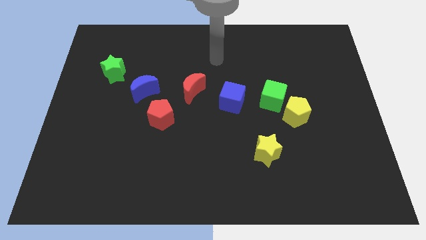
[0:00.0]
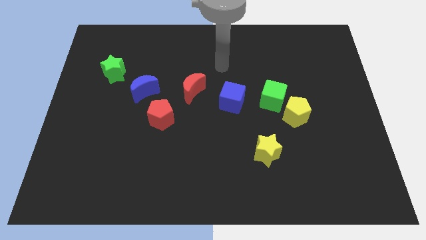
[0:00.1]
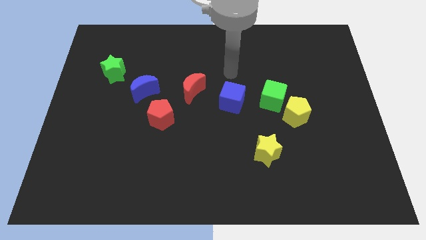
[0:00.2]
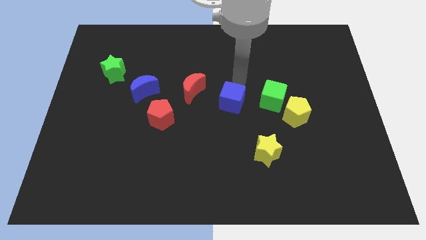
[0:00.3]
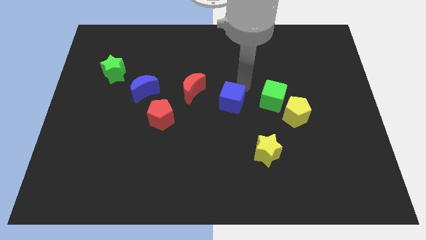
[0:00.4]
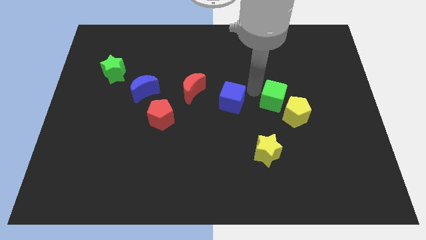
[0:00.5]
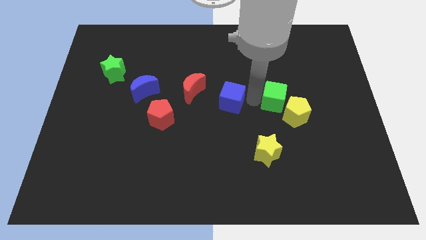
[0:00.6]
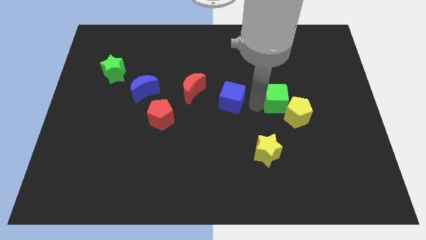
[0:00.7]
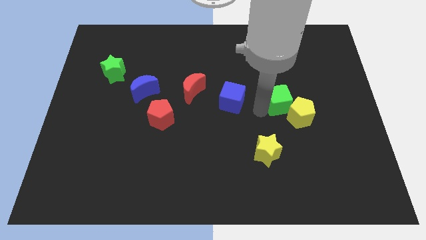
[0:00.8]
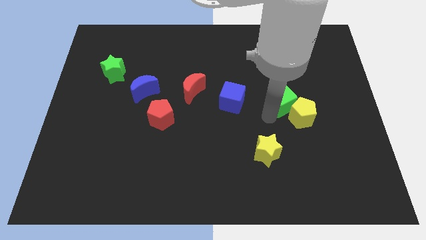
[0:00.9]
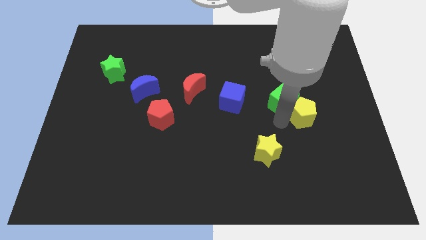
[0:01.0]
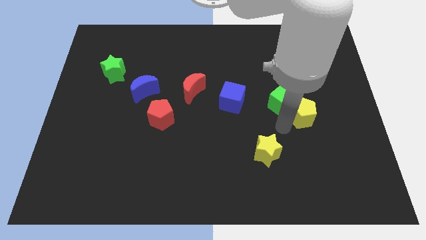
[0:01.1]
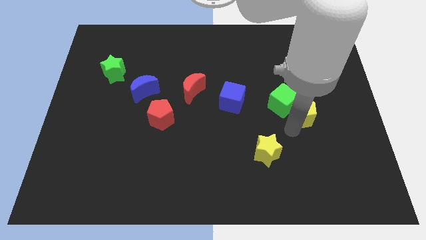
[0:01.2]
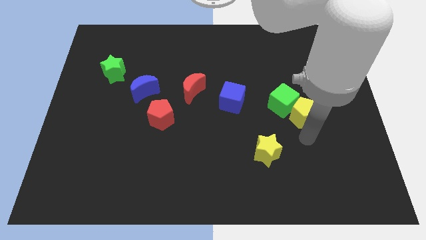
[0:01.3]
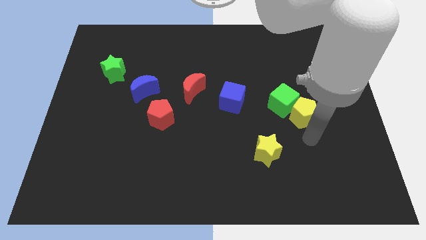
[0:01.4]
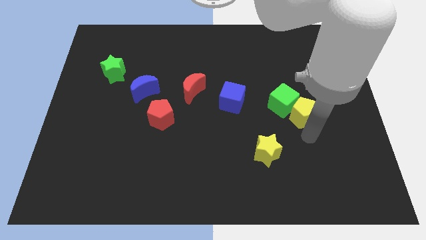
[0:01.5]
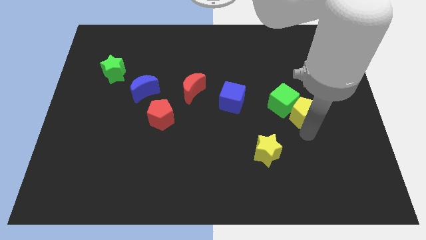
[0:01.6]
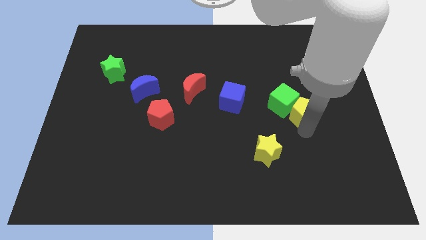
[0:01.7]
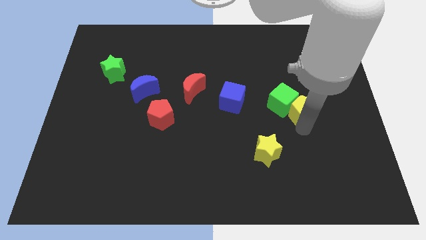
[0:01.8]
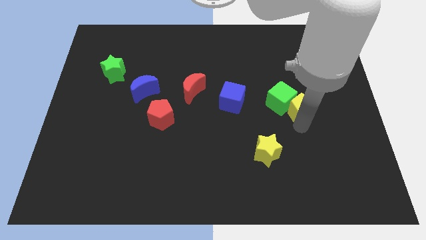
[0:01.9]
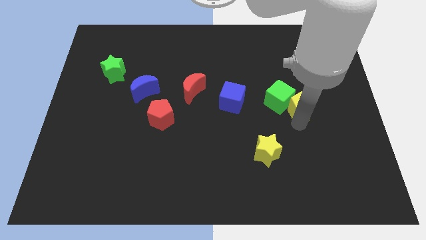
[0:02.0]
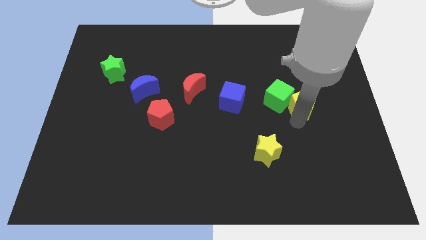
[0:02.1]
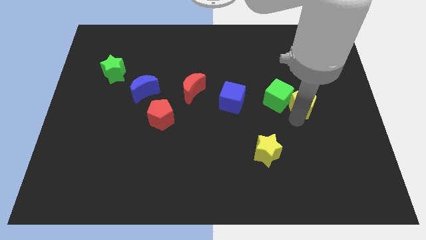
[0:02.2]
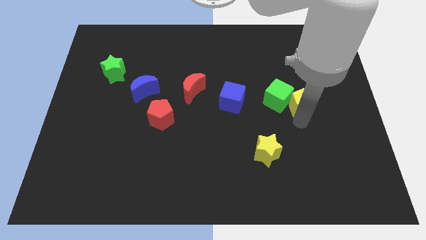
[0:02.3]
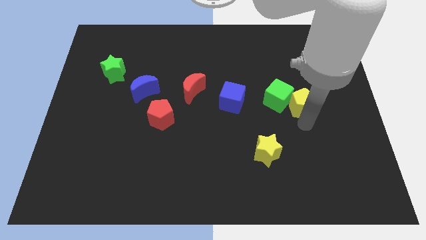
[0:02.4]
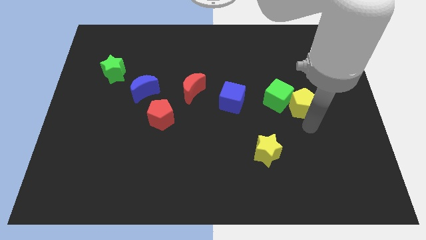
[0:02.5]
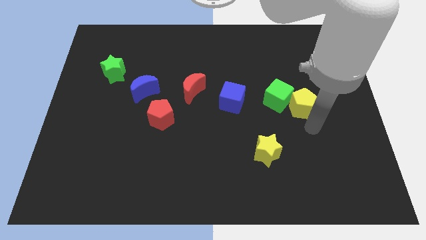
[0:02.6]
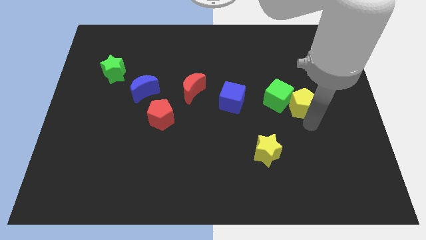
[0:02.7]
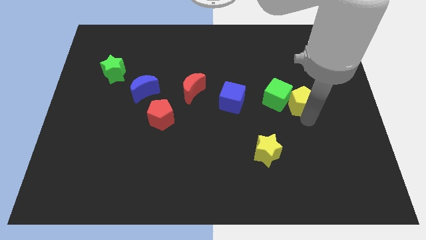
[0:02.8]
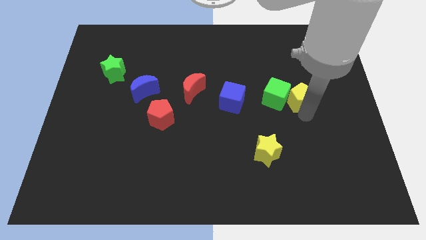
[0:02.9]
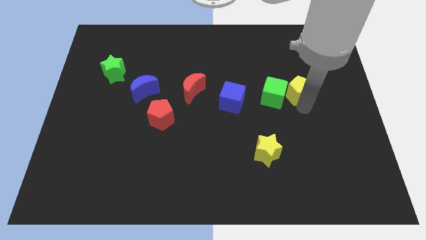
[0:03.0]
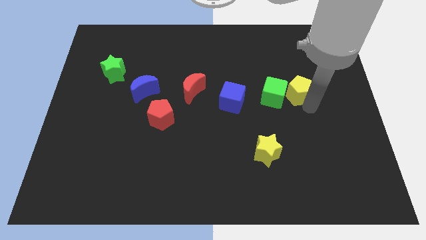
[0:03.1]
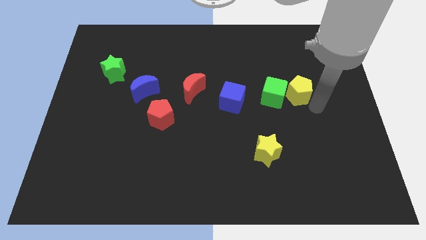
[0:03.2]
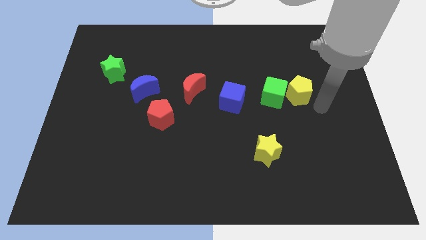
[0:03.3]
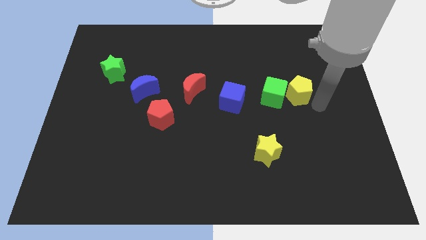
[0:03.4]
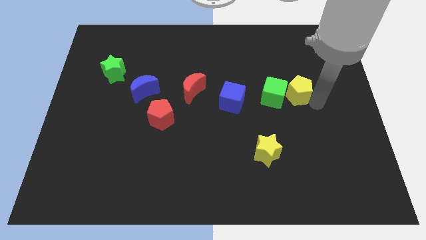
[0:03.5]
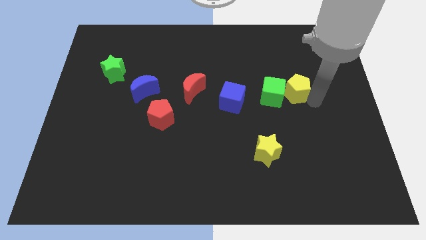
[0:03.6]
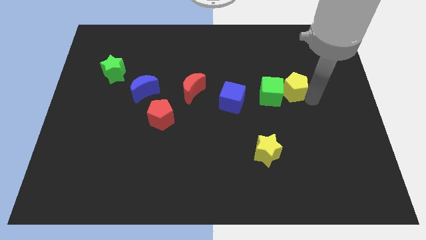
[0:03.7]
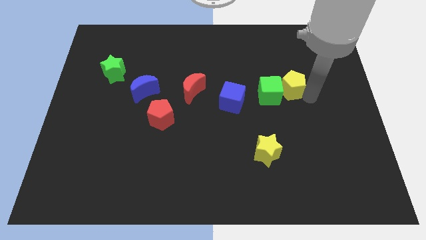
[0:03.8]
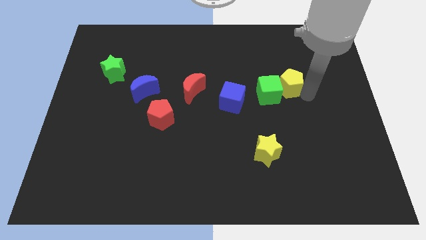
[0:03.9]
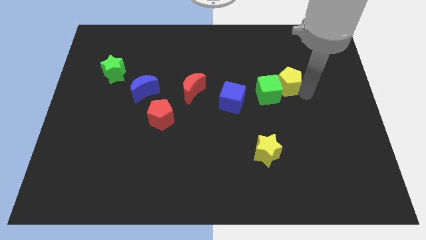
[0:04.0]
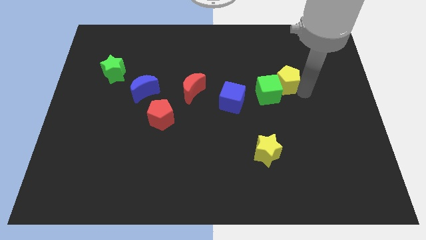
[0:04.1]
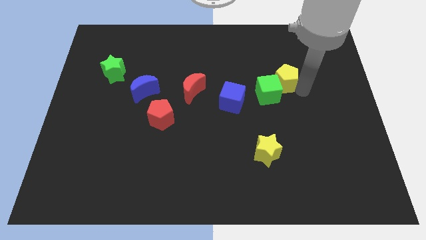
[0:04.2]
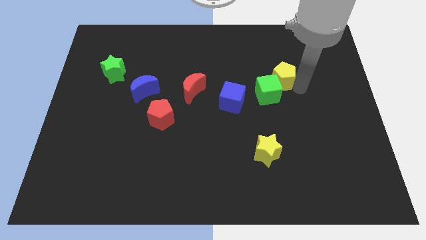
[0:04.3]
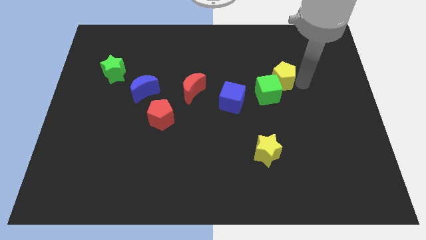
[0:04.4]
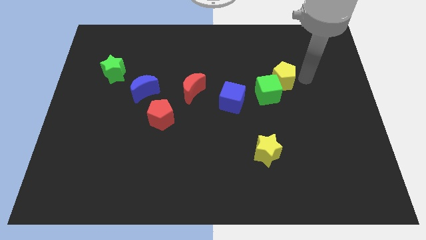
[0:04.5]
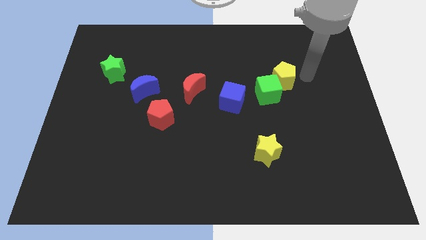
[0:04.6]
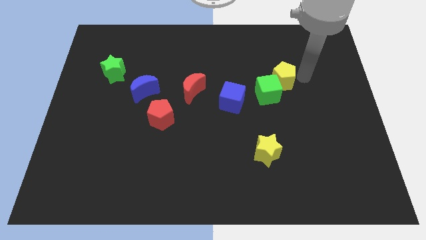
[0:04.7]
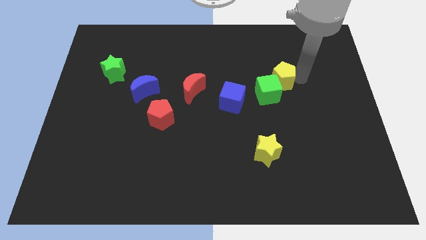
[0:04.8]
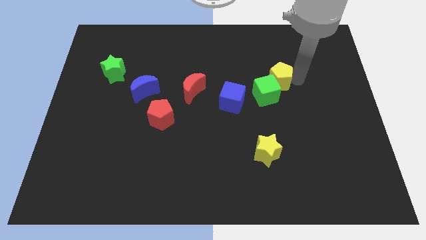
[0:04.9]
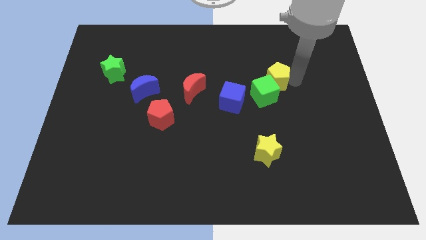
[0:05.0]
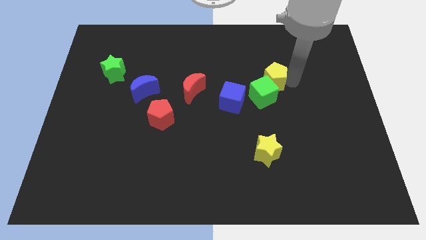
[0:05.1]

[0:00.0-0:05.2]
slide the yellow pentagon to the top right of the blue cube

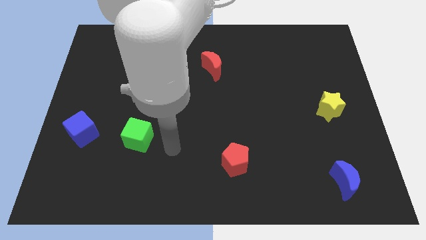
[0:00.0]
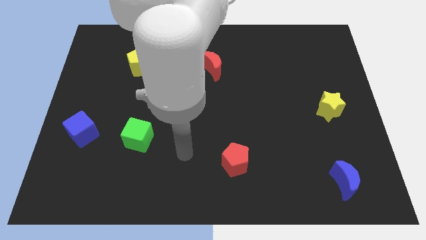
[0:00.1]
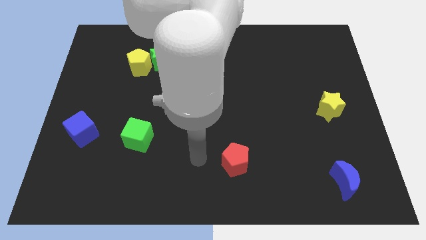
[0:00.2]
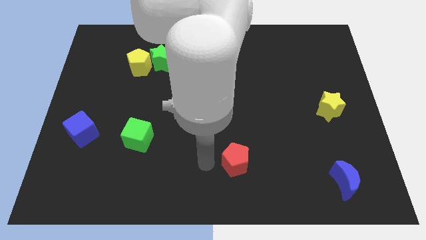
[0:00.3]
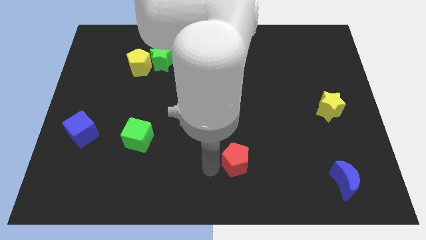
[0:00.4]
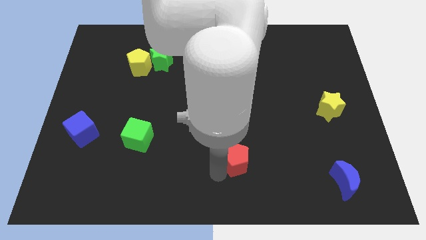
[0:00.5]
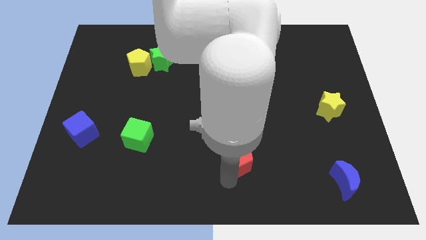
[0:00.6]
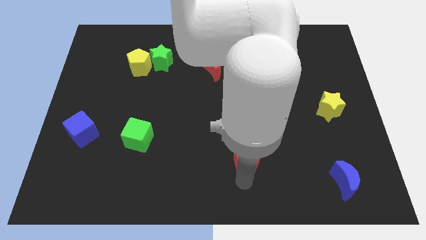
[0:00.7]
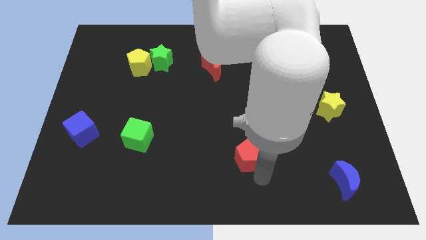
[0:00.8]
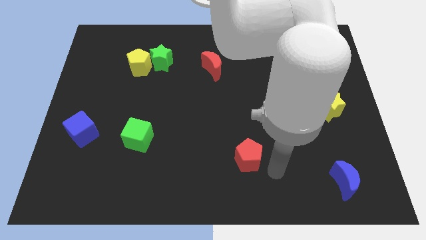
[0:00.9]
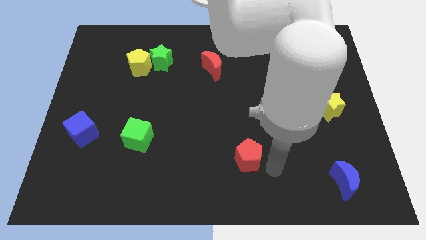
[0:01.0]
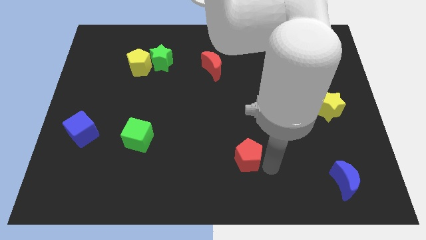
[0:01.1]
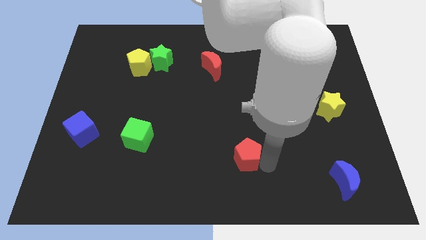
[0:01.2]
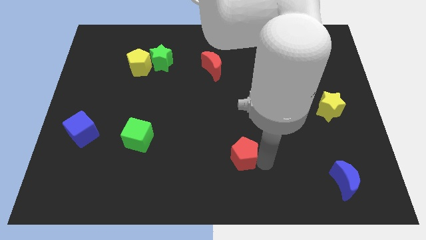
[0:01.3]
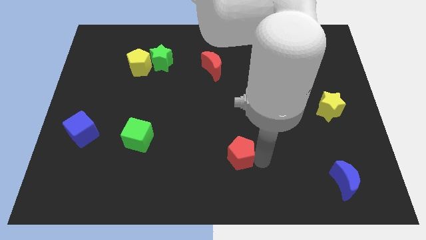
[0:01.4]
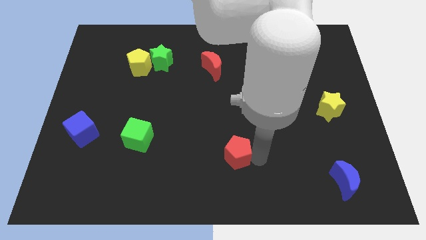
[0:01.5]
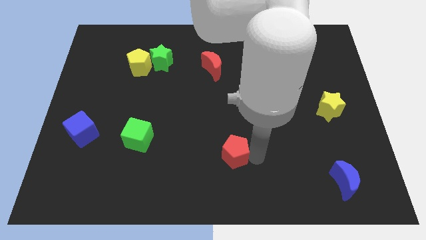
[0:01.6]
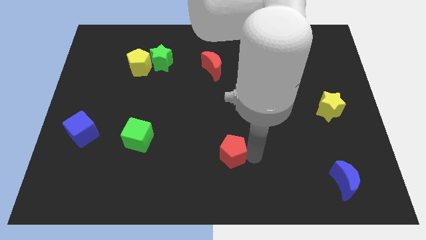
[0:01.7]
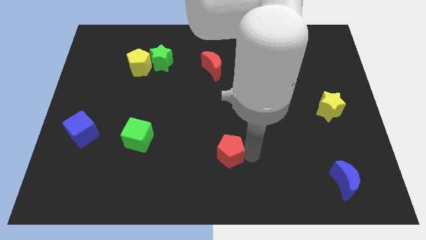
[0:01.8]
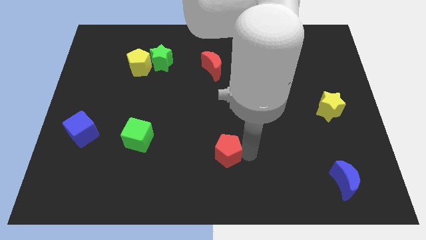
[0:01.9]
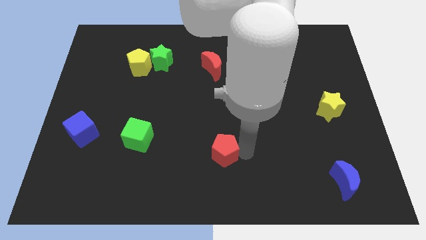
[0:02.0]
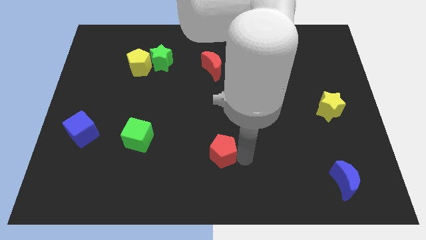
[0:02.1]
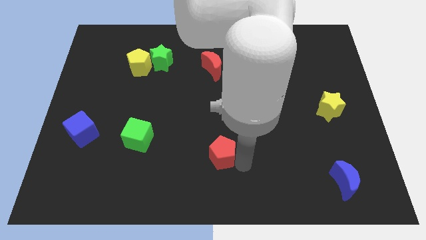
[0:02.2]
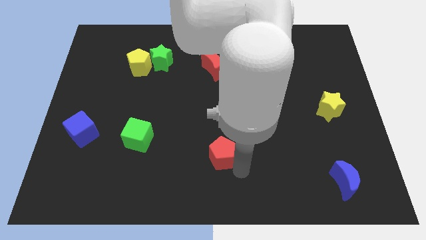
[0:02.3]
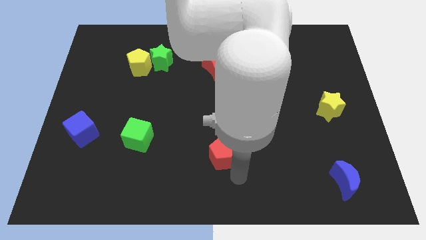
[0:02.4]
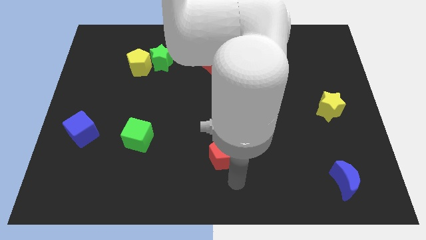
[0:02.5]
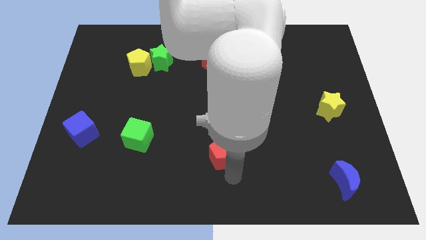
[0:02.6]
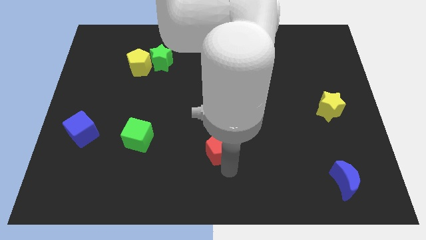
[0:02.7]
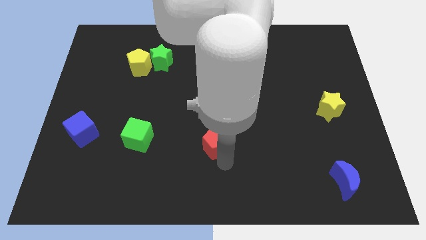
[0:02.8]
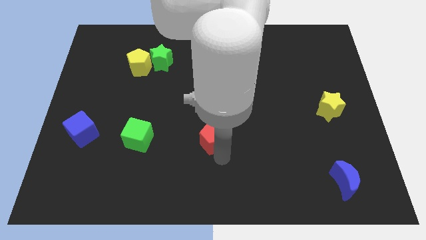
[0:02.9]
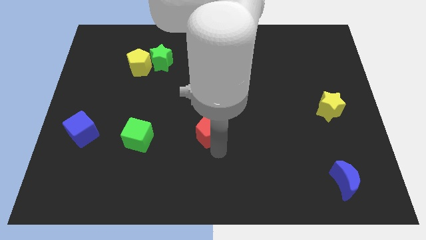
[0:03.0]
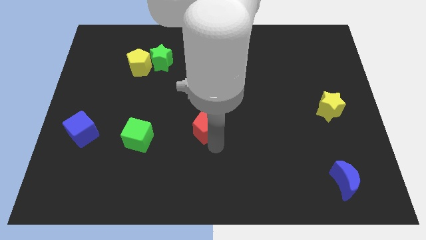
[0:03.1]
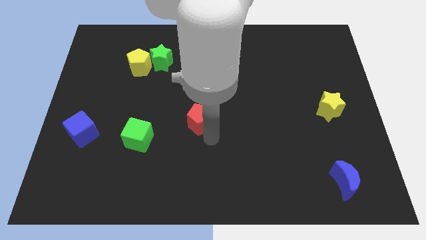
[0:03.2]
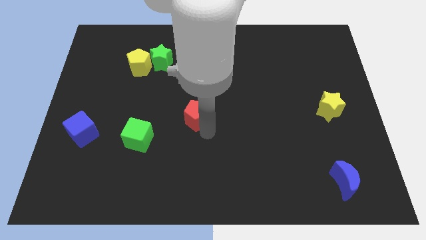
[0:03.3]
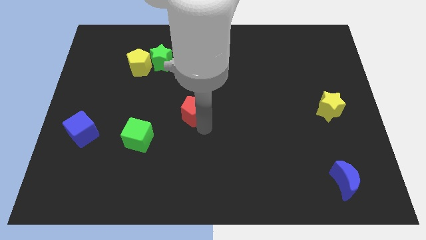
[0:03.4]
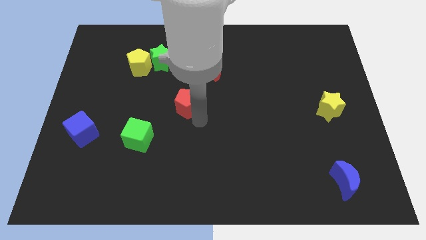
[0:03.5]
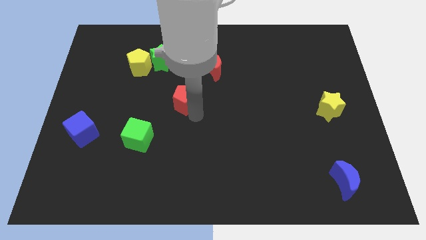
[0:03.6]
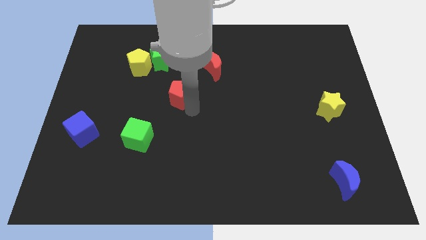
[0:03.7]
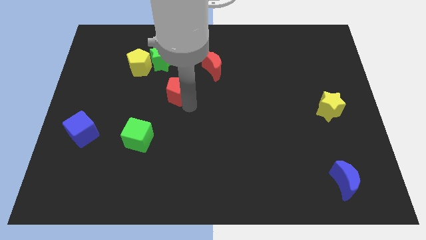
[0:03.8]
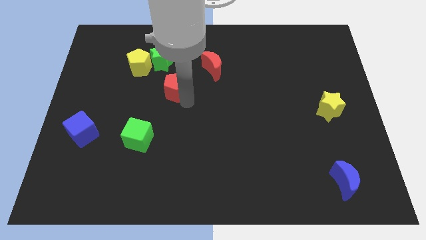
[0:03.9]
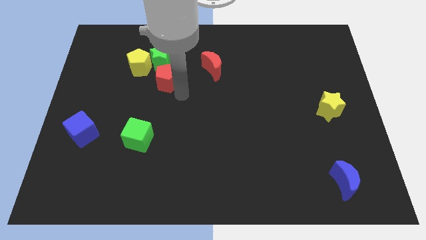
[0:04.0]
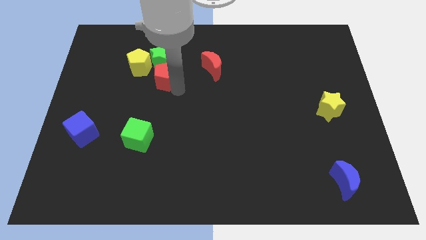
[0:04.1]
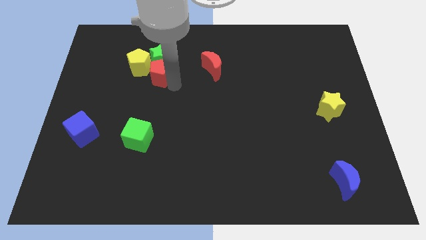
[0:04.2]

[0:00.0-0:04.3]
put the red pentagon diagonally down and to the left of the green star
